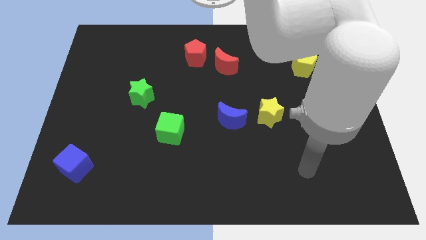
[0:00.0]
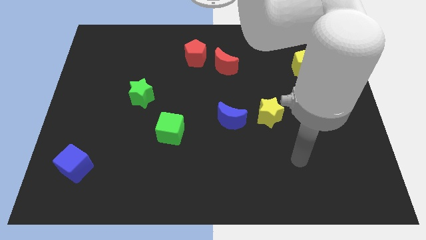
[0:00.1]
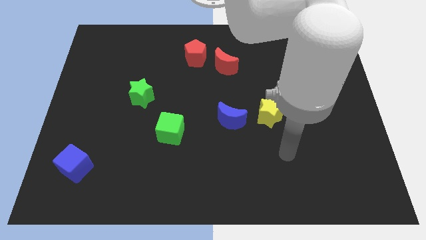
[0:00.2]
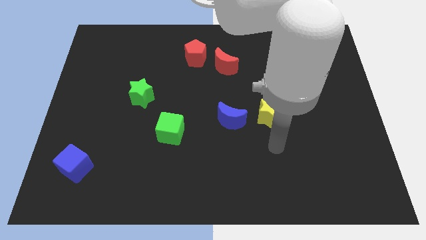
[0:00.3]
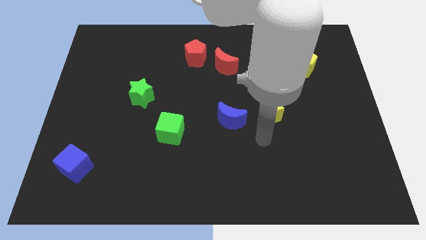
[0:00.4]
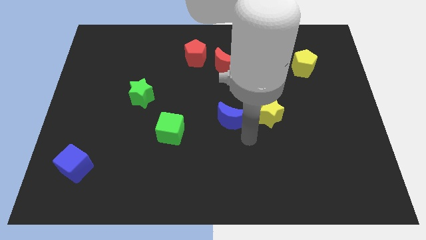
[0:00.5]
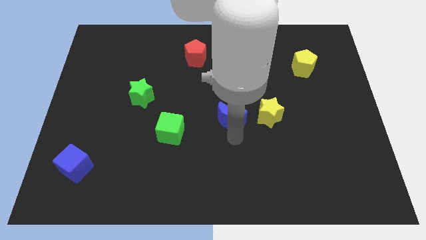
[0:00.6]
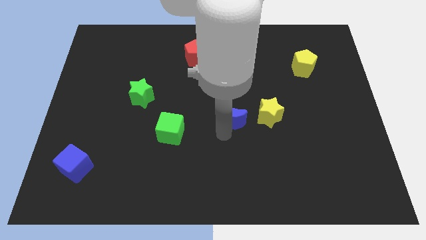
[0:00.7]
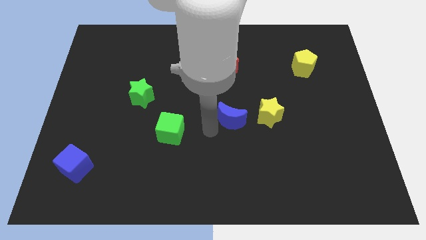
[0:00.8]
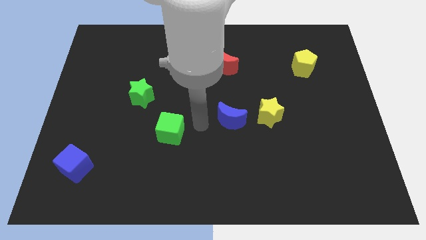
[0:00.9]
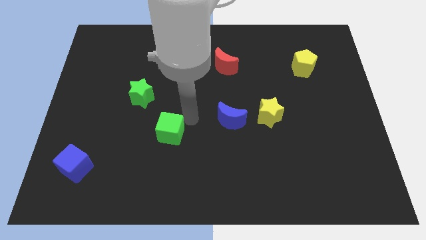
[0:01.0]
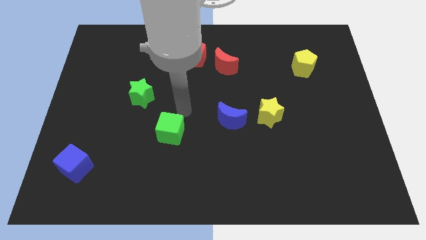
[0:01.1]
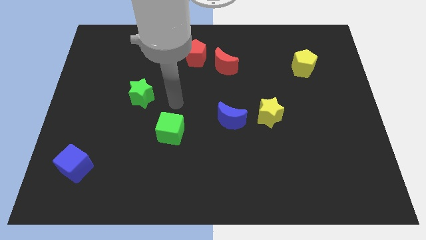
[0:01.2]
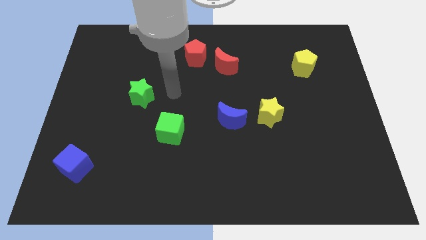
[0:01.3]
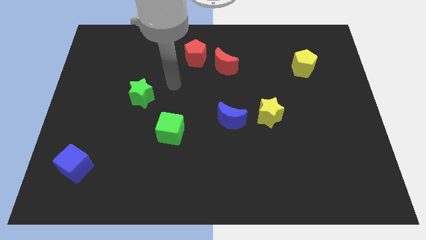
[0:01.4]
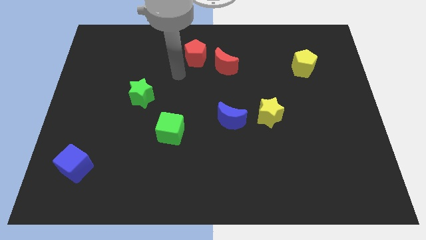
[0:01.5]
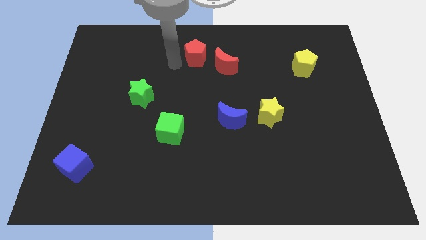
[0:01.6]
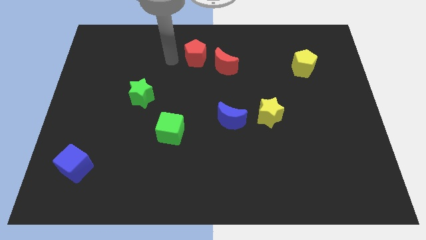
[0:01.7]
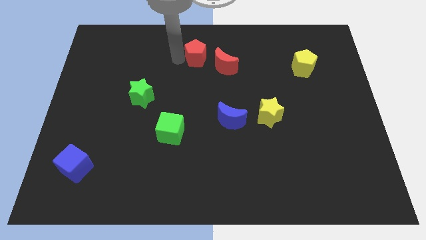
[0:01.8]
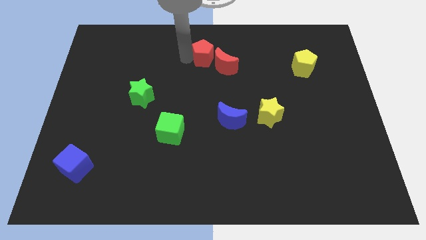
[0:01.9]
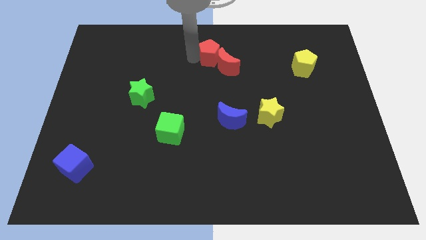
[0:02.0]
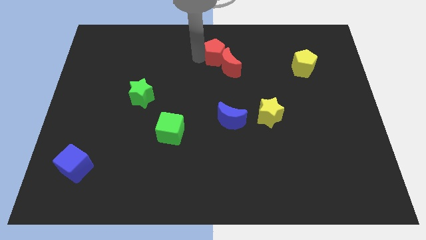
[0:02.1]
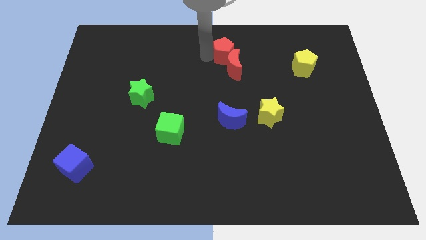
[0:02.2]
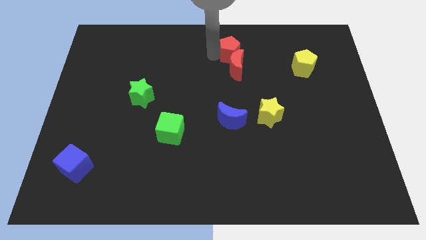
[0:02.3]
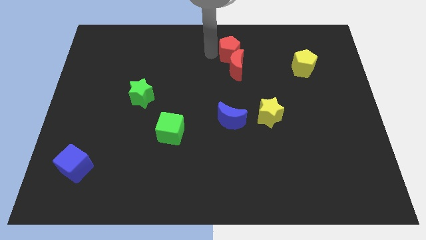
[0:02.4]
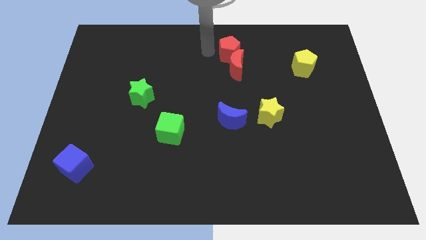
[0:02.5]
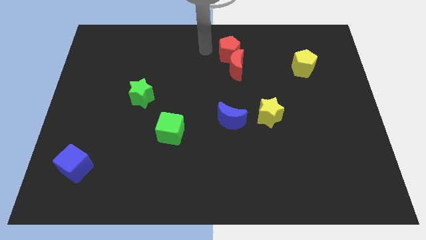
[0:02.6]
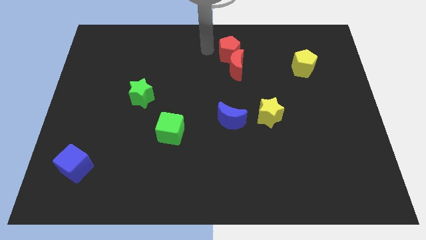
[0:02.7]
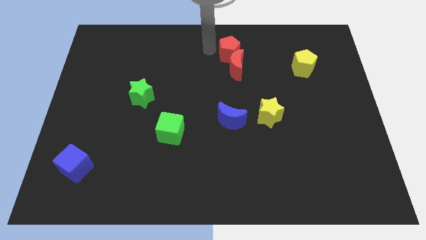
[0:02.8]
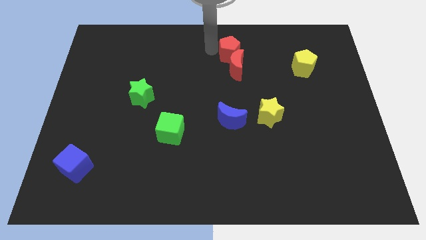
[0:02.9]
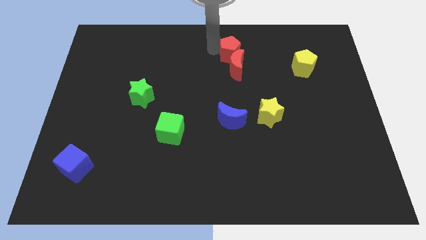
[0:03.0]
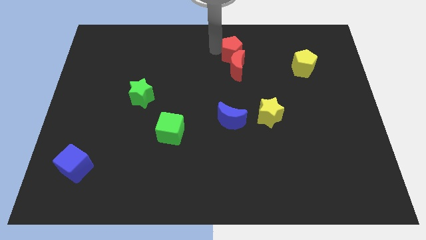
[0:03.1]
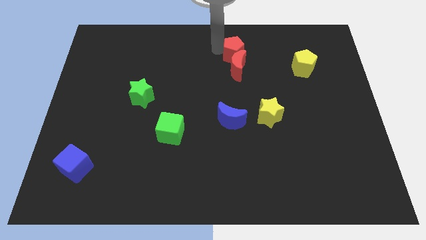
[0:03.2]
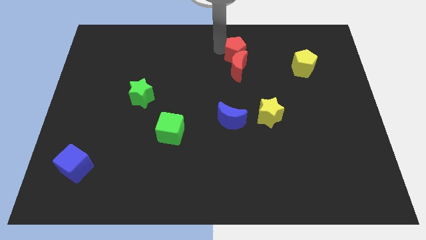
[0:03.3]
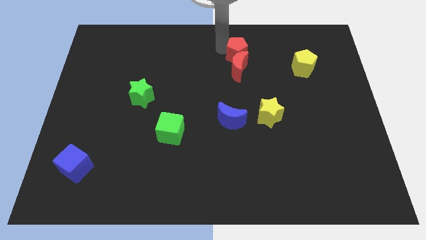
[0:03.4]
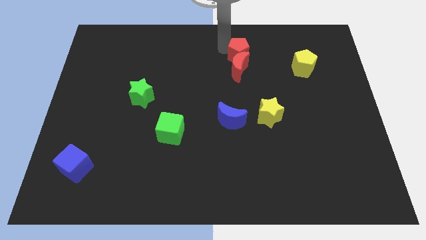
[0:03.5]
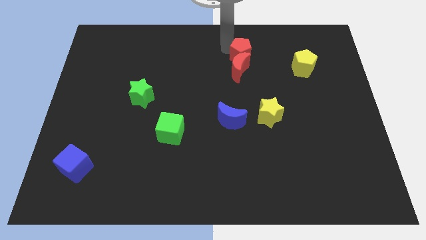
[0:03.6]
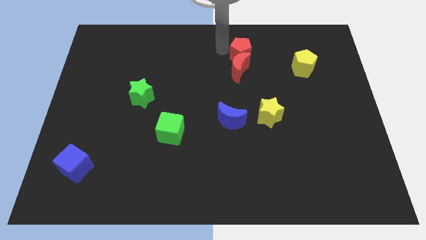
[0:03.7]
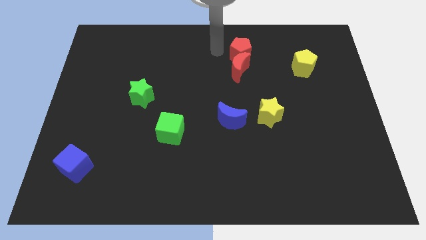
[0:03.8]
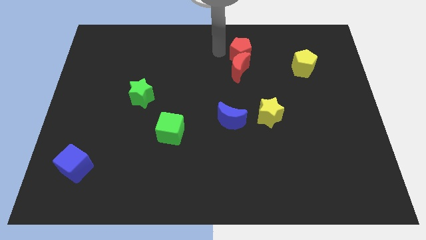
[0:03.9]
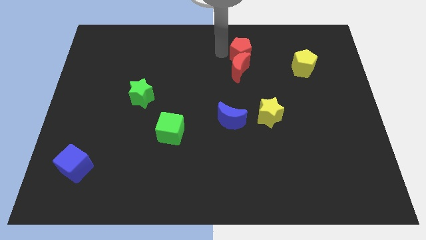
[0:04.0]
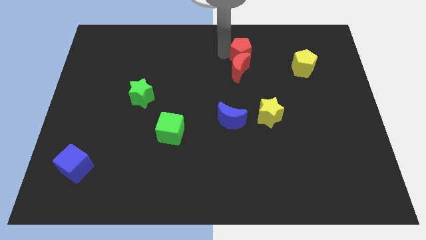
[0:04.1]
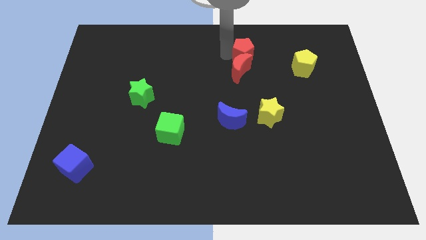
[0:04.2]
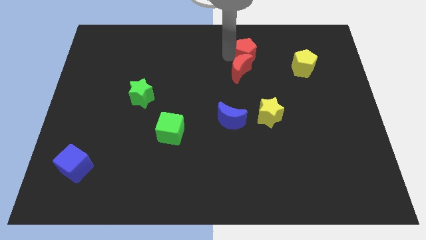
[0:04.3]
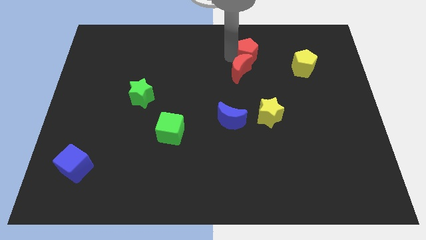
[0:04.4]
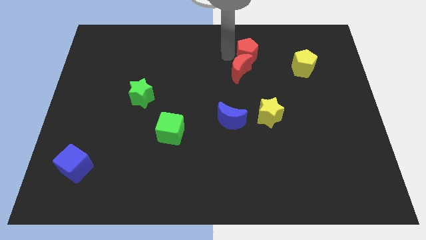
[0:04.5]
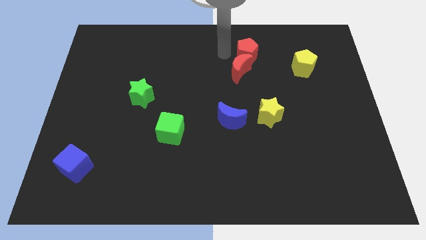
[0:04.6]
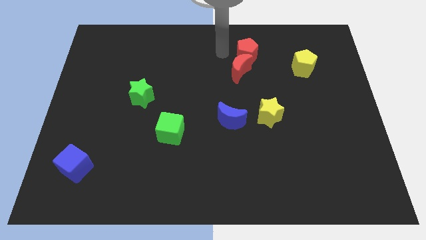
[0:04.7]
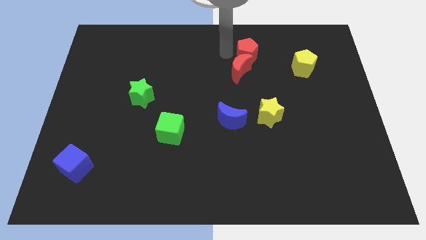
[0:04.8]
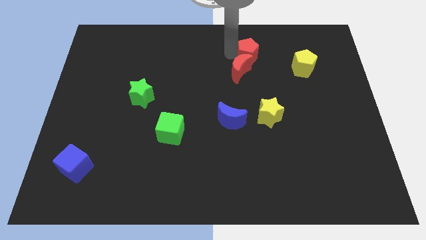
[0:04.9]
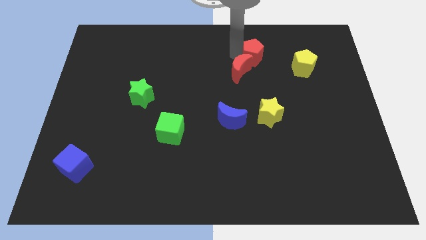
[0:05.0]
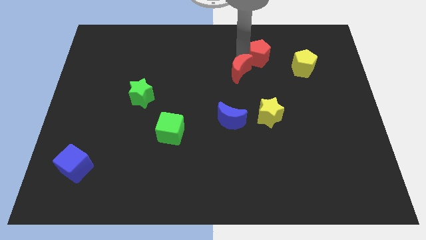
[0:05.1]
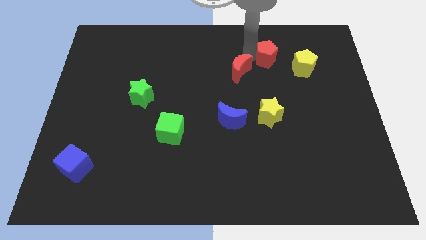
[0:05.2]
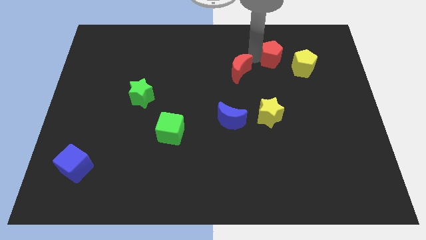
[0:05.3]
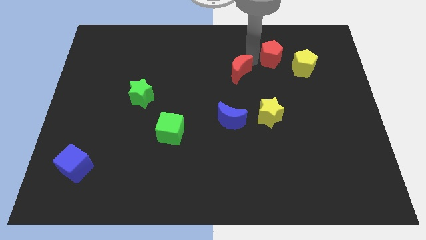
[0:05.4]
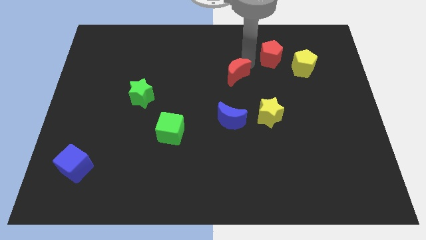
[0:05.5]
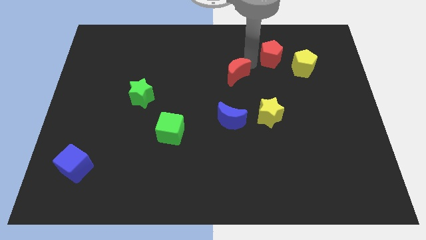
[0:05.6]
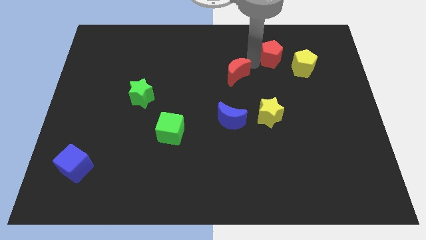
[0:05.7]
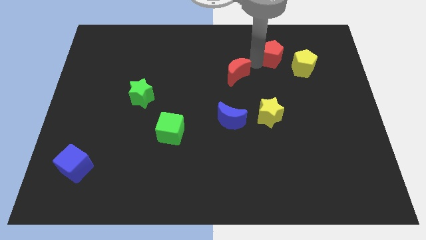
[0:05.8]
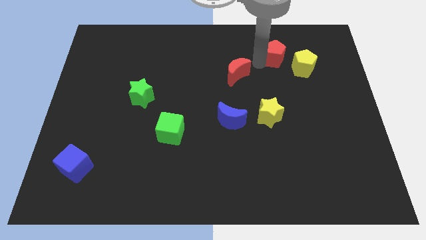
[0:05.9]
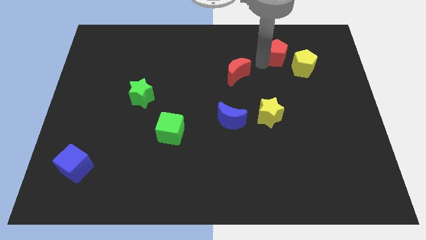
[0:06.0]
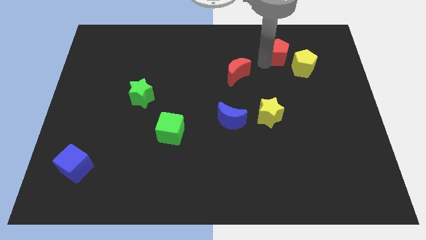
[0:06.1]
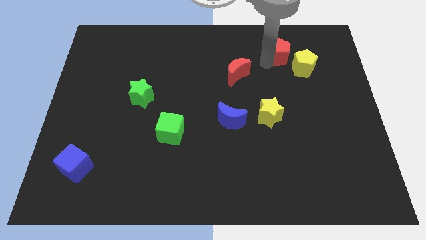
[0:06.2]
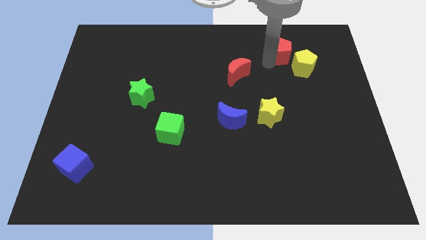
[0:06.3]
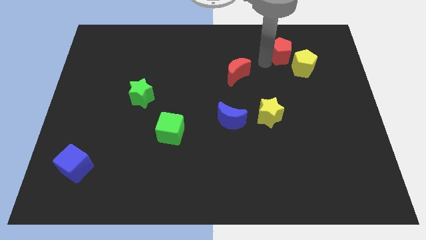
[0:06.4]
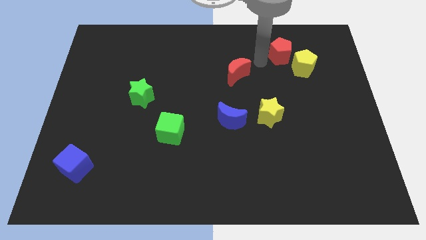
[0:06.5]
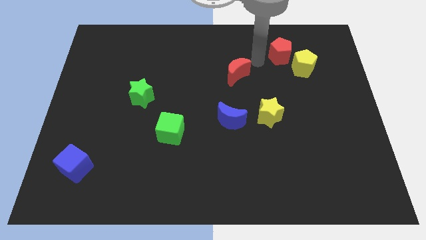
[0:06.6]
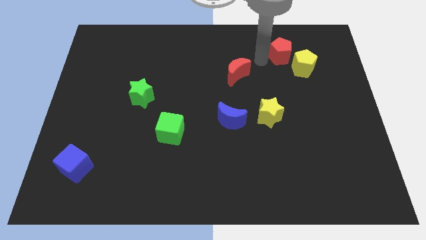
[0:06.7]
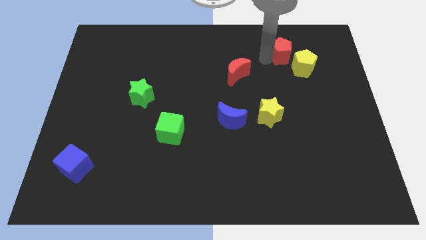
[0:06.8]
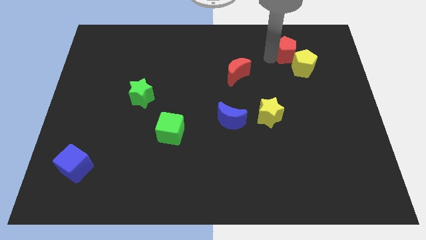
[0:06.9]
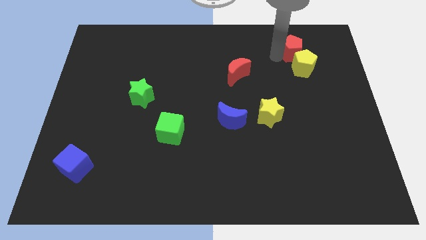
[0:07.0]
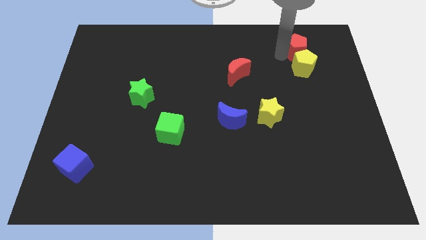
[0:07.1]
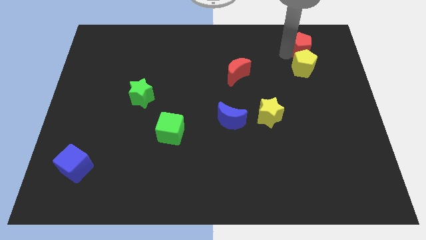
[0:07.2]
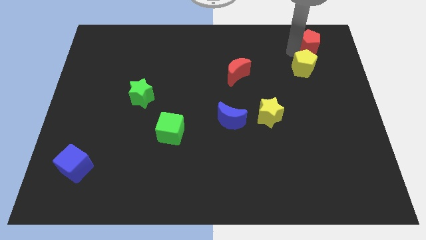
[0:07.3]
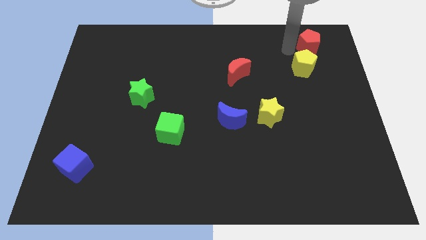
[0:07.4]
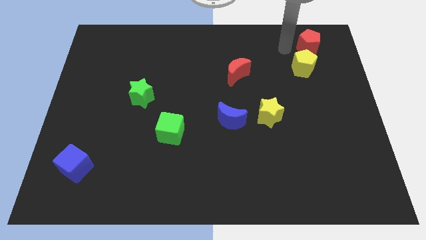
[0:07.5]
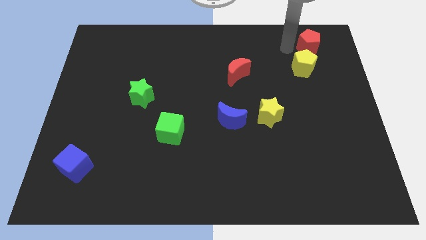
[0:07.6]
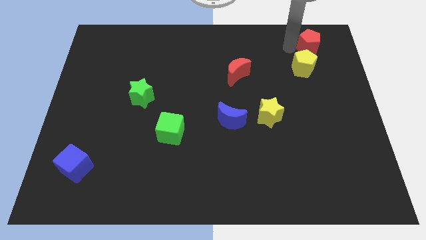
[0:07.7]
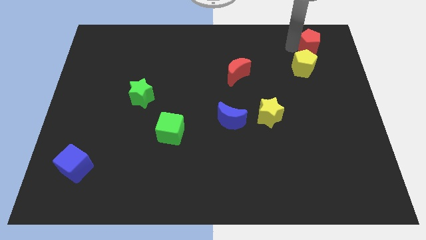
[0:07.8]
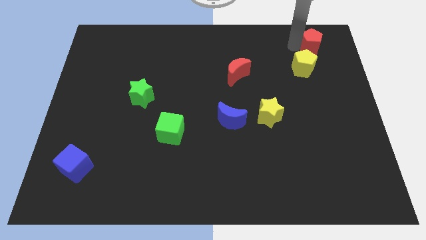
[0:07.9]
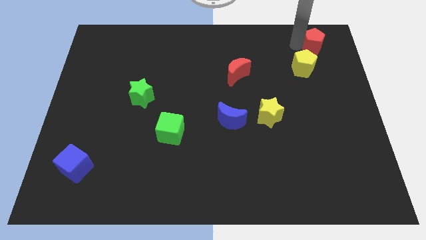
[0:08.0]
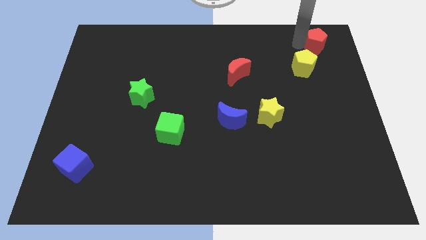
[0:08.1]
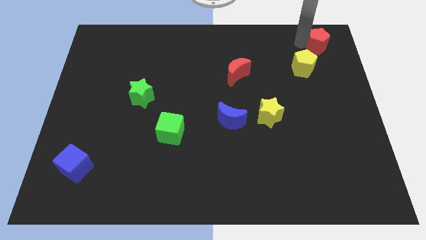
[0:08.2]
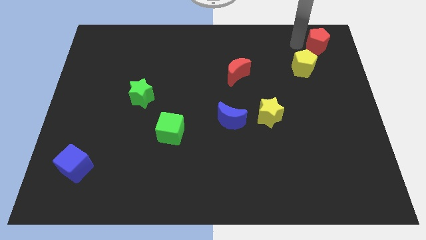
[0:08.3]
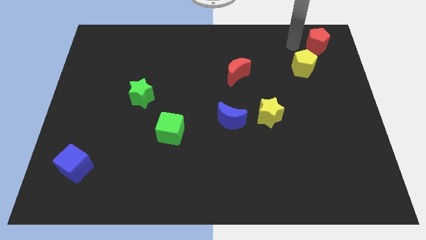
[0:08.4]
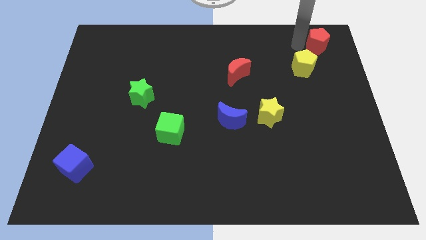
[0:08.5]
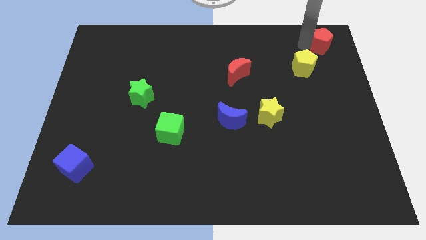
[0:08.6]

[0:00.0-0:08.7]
slide the red pentagon to the top right
